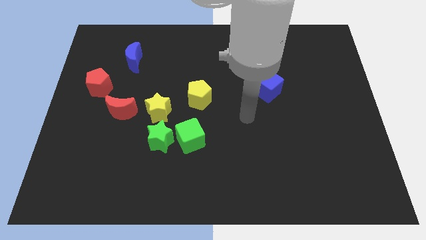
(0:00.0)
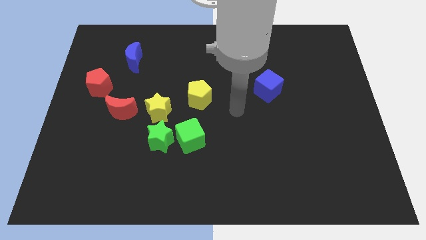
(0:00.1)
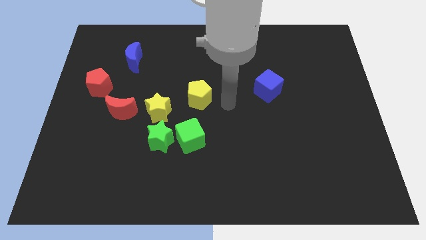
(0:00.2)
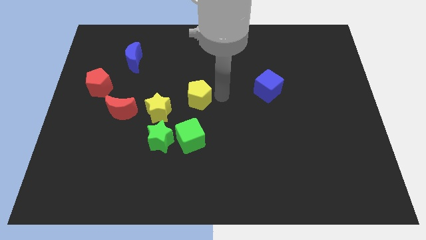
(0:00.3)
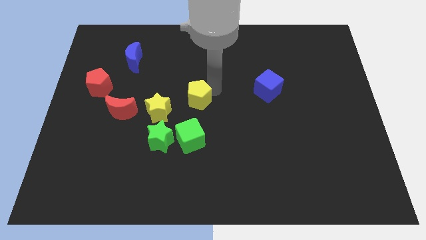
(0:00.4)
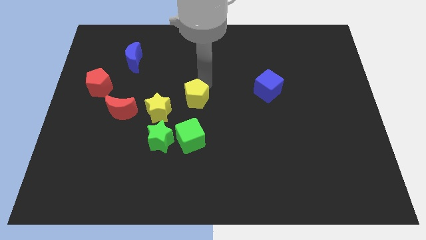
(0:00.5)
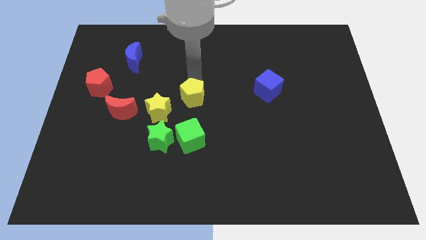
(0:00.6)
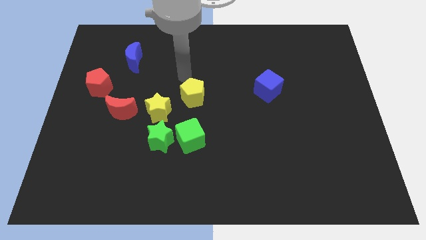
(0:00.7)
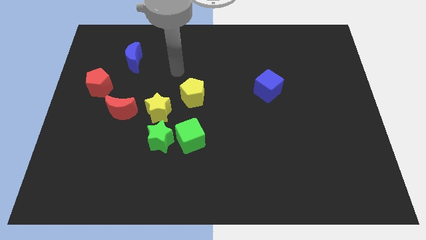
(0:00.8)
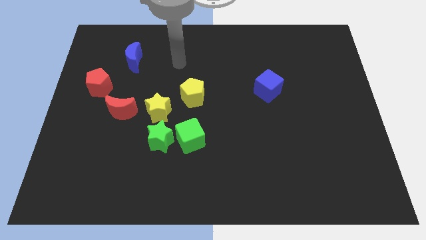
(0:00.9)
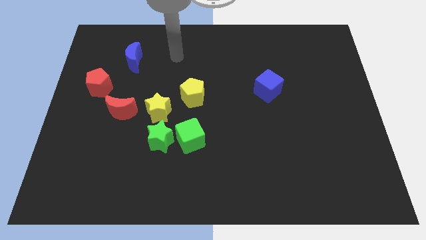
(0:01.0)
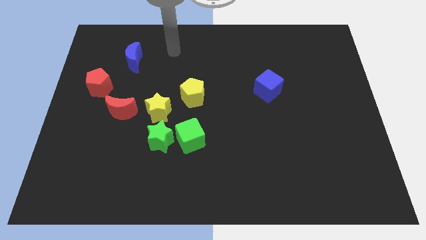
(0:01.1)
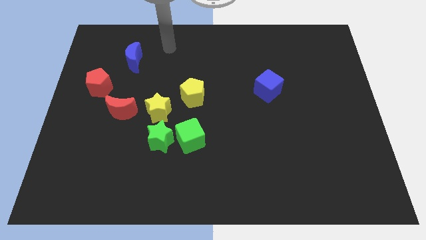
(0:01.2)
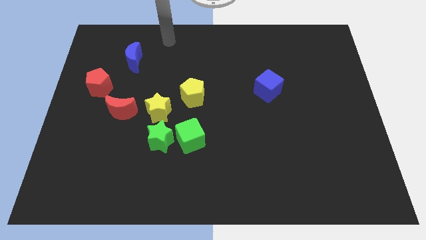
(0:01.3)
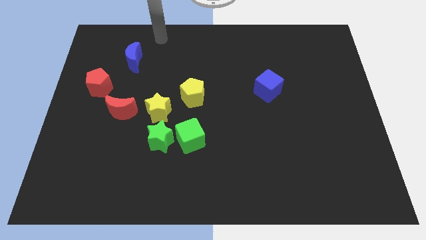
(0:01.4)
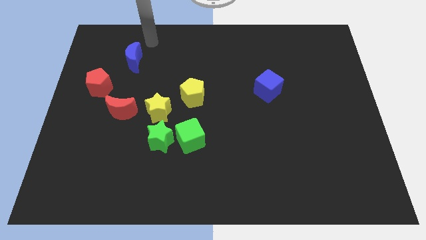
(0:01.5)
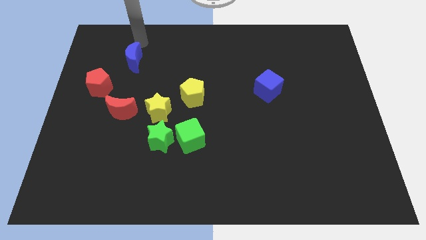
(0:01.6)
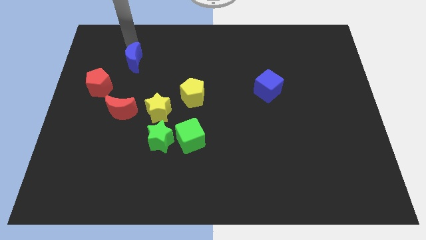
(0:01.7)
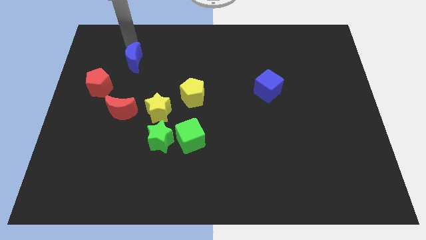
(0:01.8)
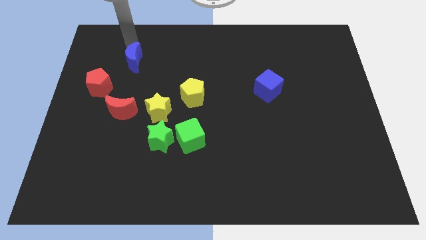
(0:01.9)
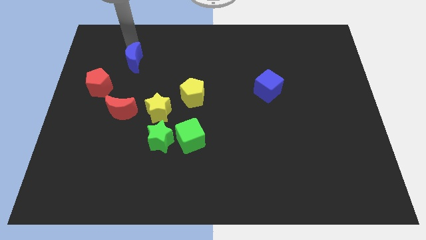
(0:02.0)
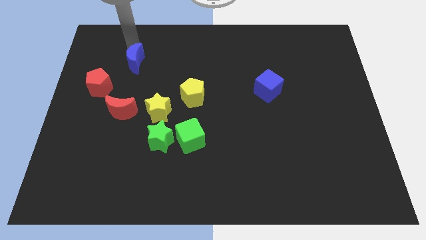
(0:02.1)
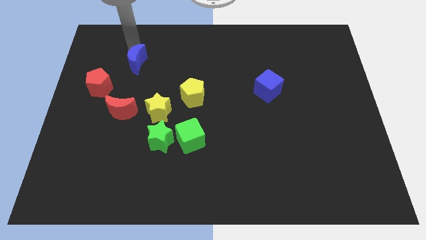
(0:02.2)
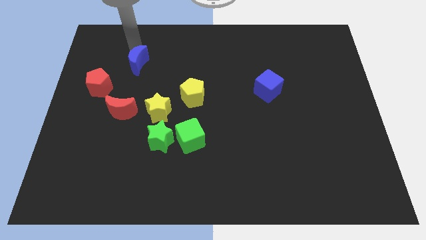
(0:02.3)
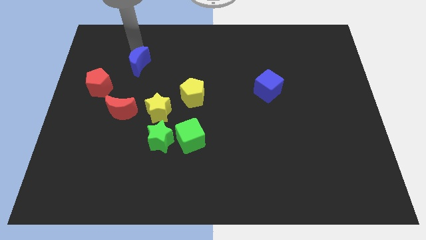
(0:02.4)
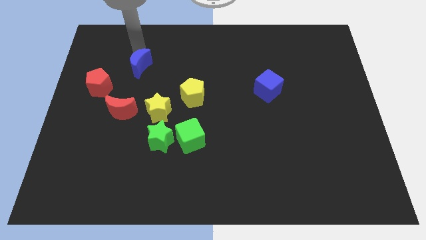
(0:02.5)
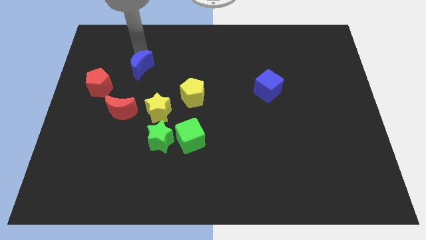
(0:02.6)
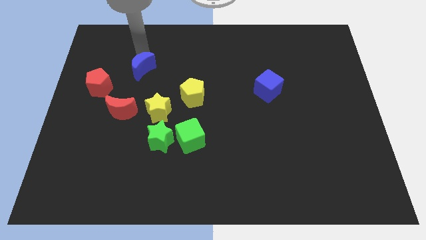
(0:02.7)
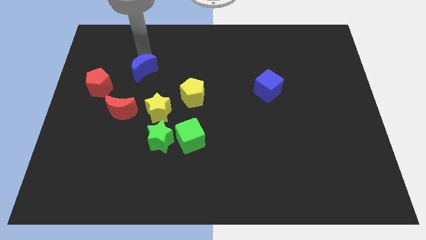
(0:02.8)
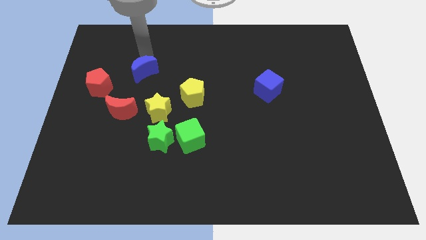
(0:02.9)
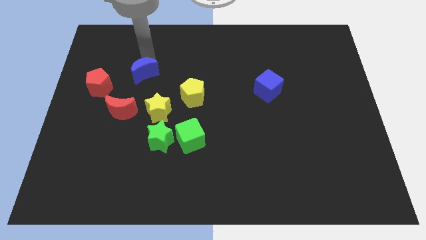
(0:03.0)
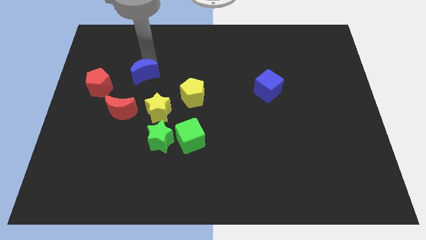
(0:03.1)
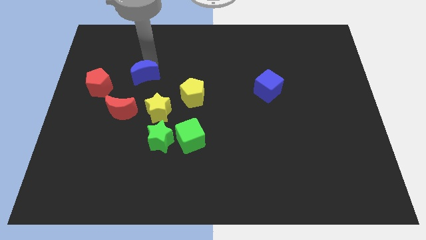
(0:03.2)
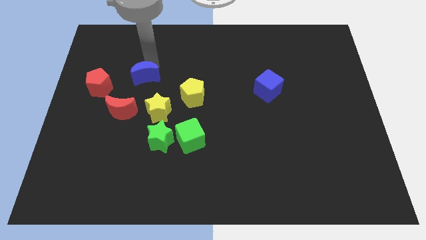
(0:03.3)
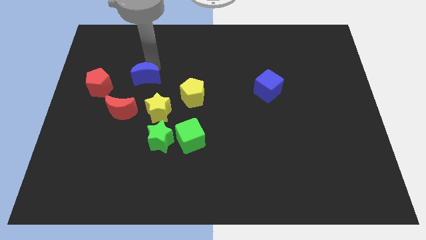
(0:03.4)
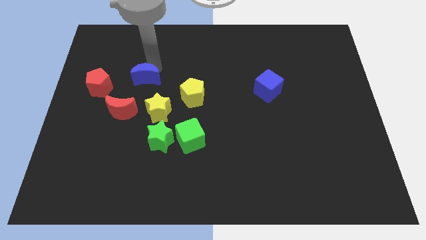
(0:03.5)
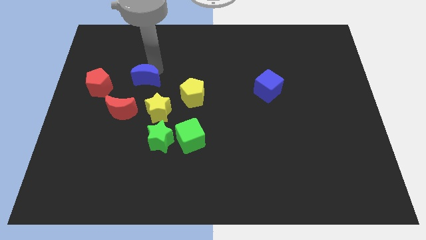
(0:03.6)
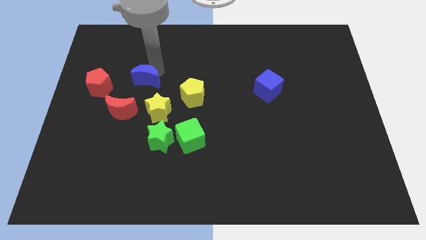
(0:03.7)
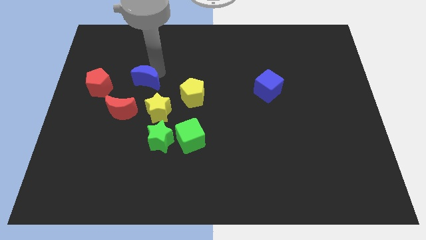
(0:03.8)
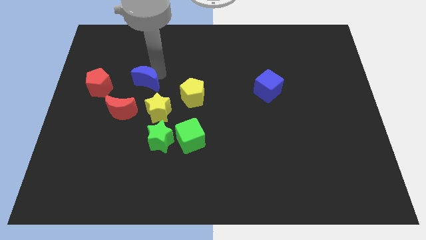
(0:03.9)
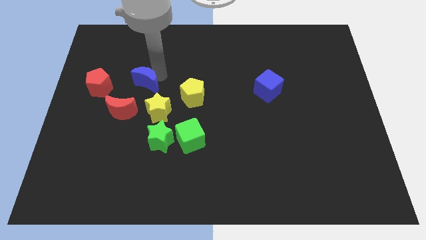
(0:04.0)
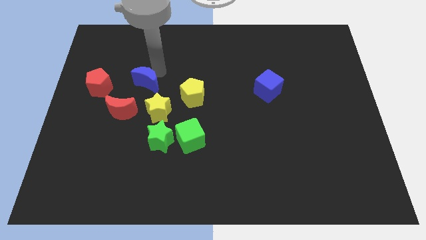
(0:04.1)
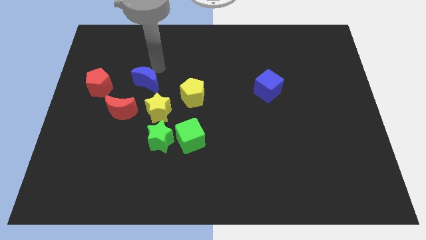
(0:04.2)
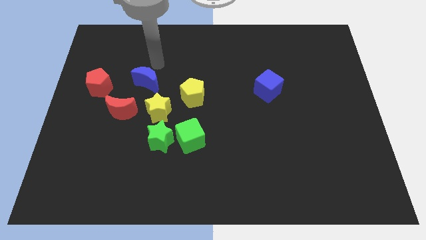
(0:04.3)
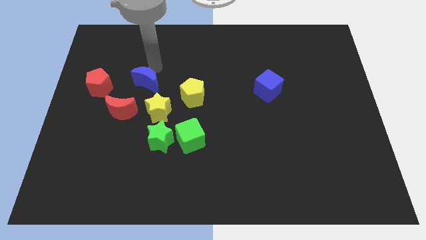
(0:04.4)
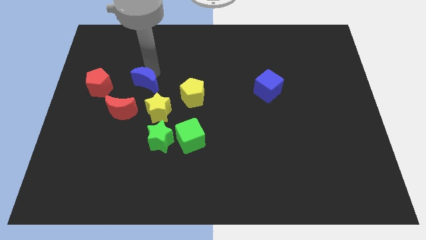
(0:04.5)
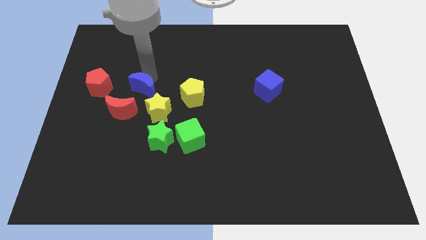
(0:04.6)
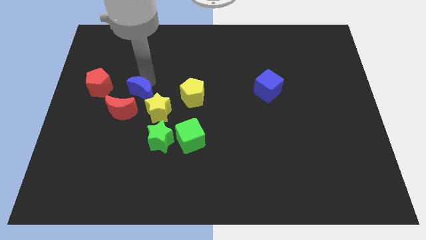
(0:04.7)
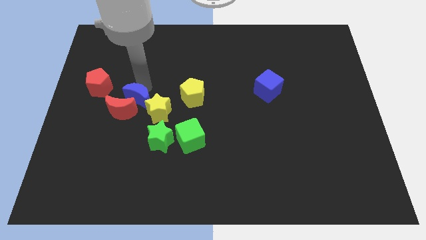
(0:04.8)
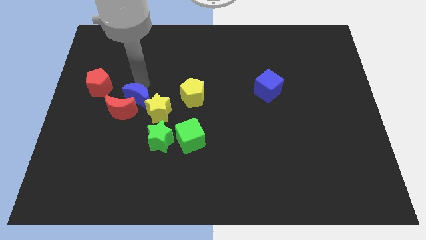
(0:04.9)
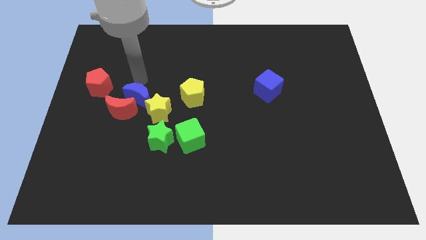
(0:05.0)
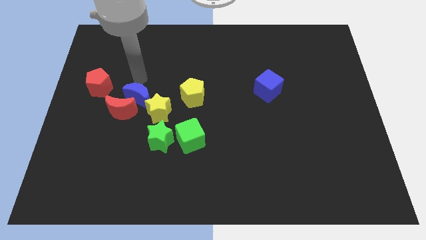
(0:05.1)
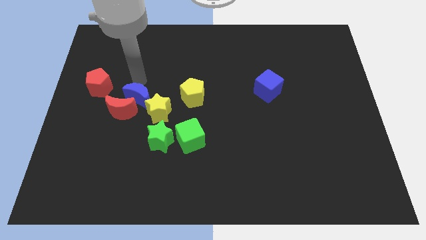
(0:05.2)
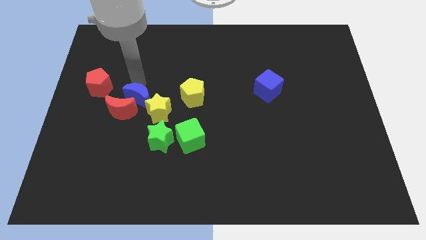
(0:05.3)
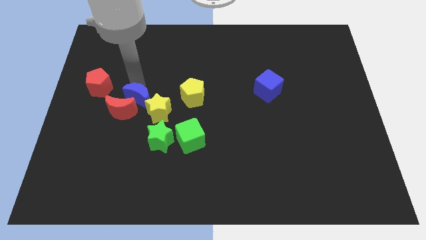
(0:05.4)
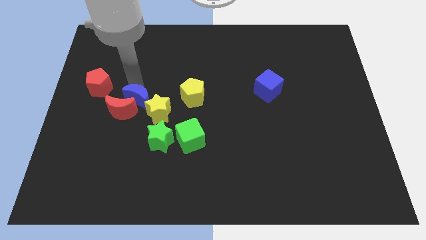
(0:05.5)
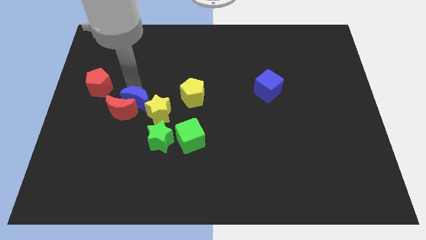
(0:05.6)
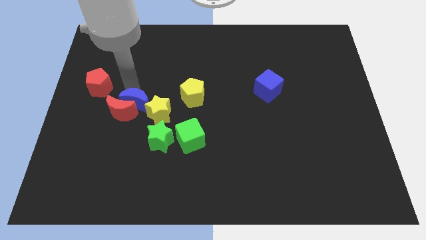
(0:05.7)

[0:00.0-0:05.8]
move the blue moon to the top left of the green star
